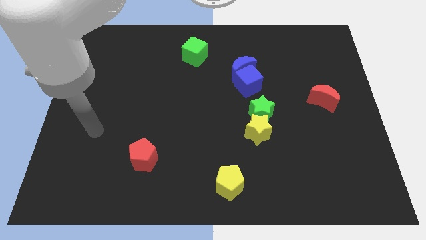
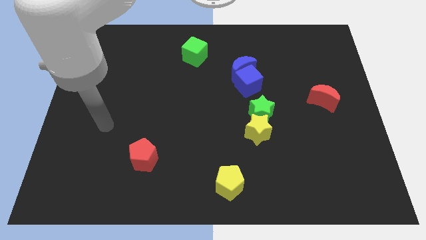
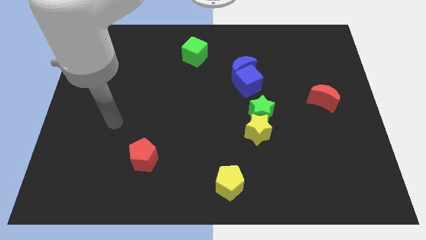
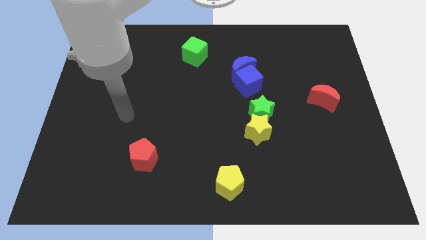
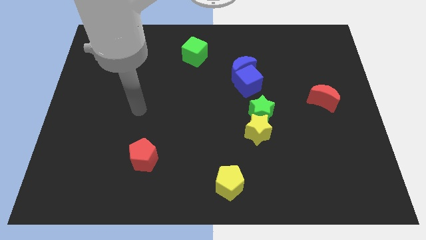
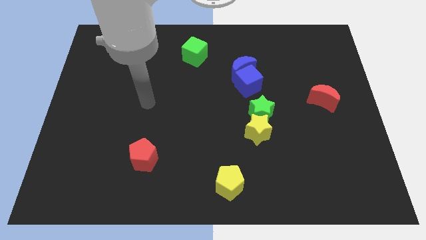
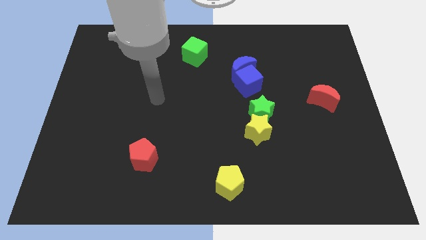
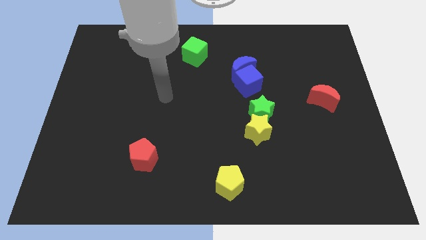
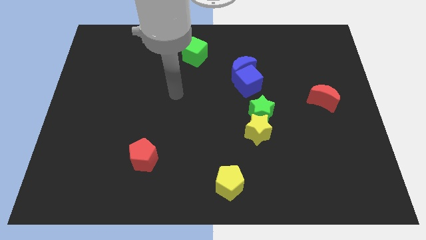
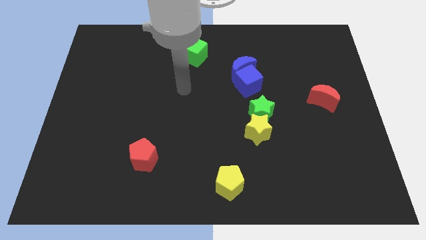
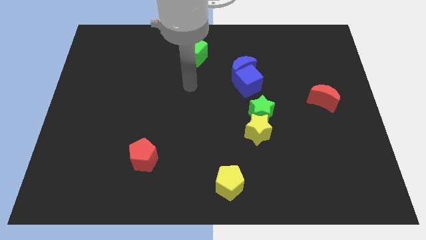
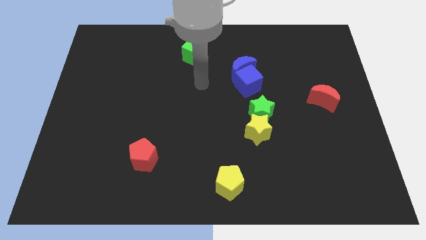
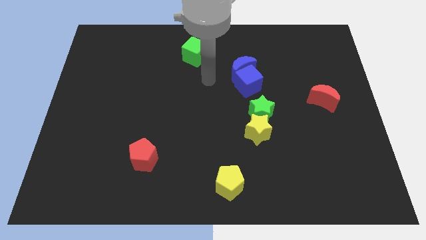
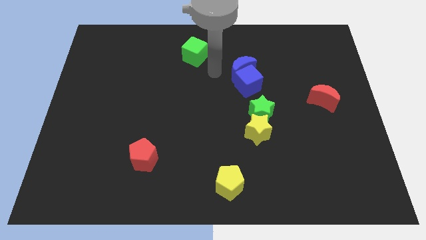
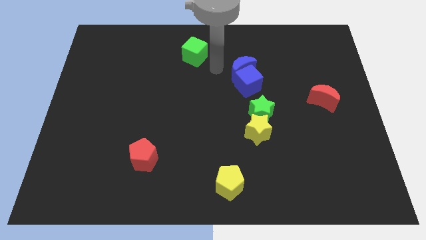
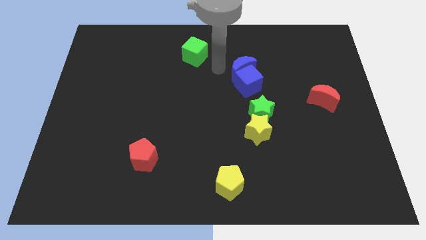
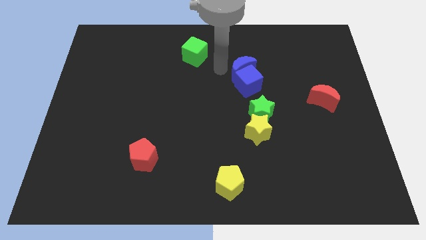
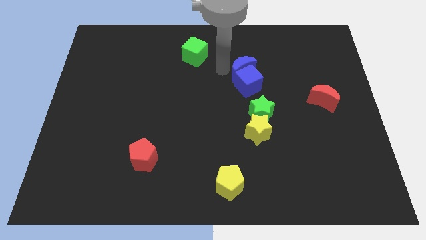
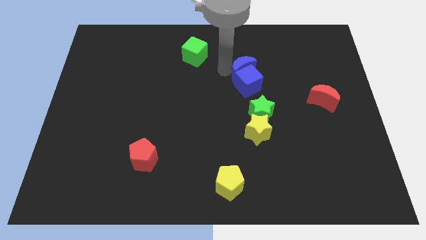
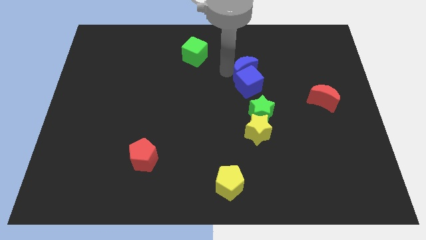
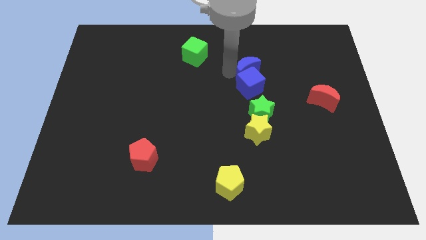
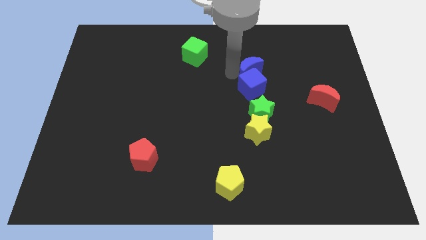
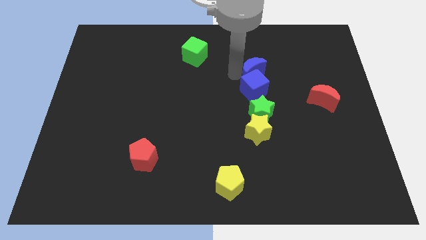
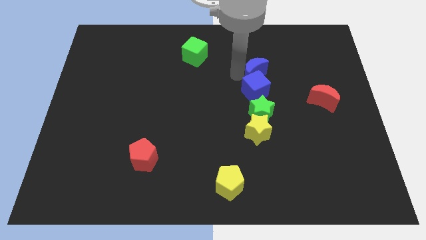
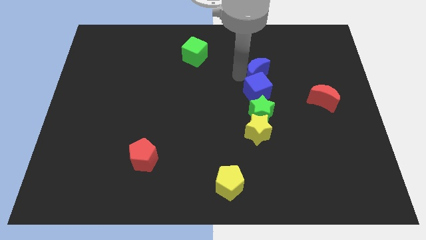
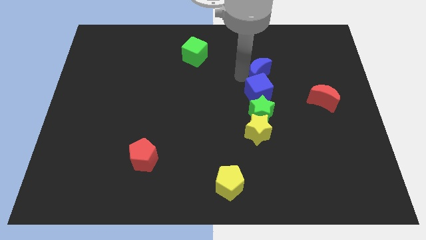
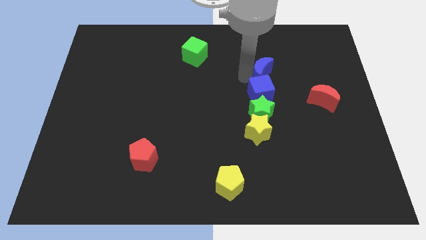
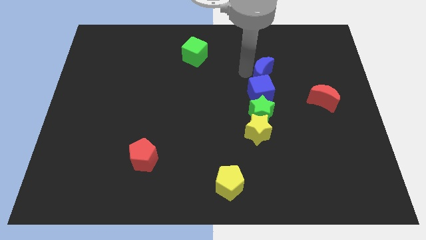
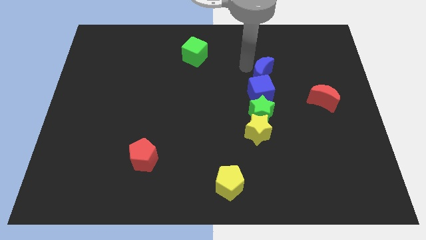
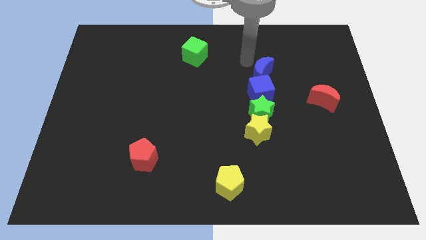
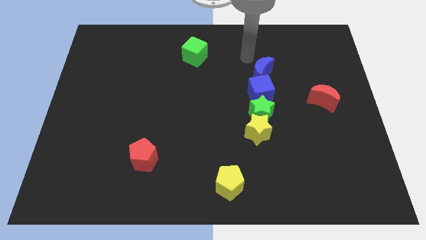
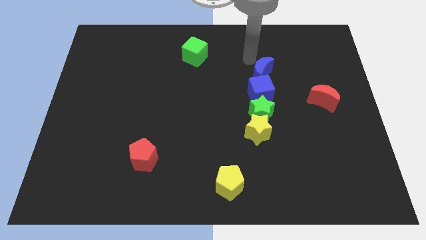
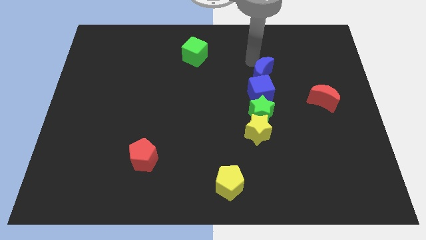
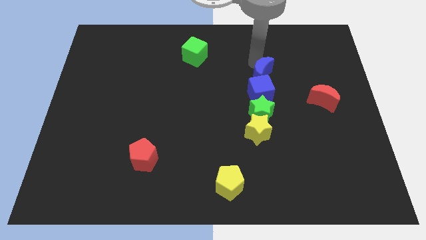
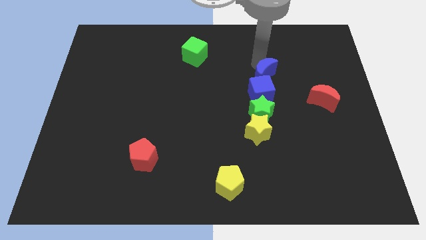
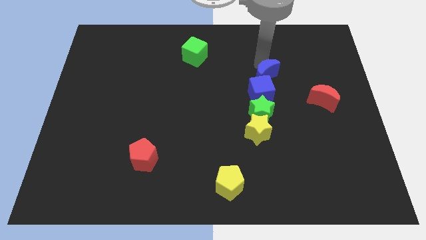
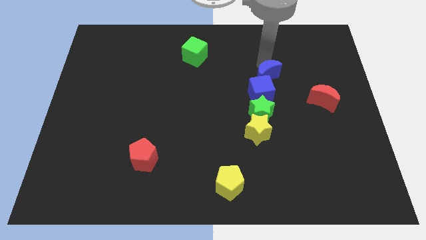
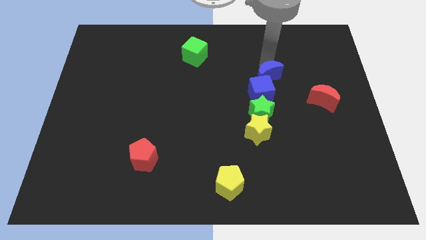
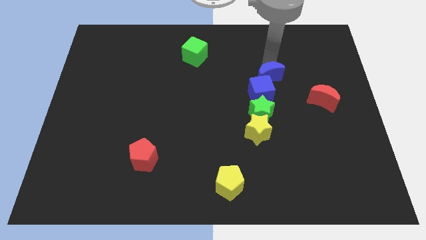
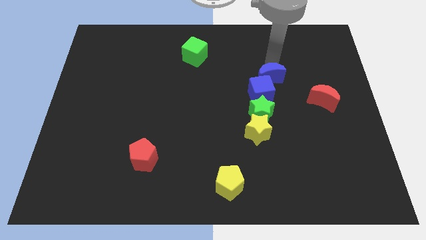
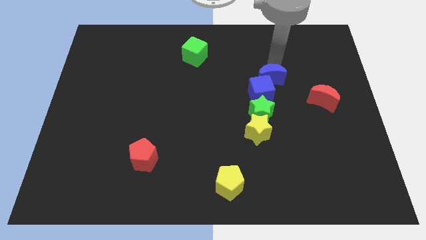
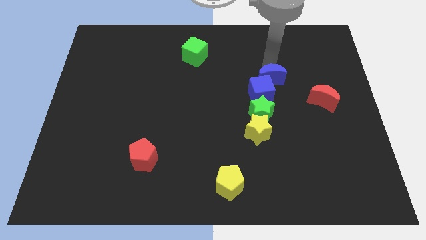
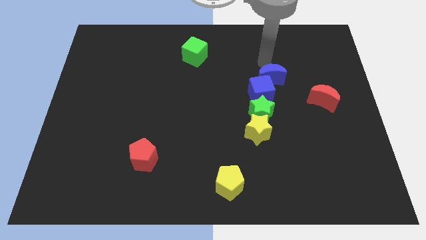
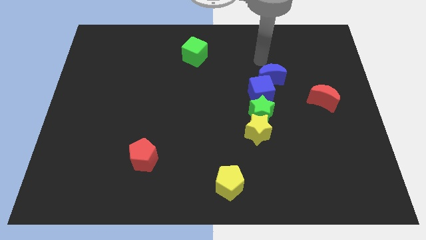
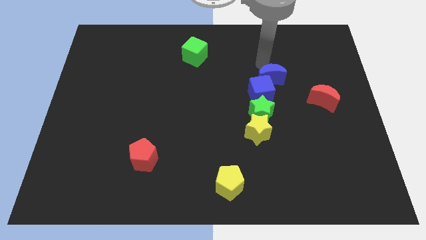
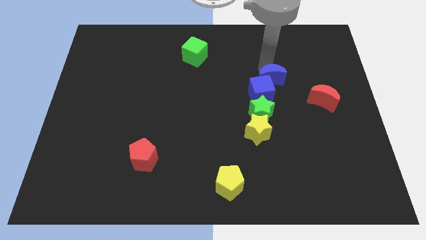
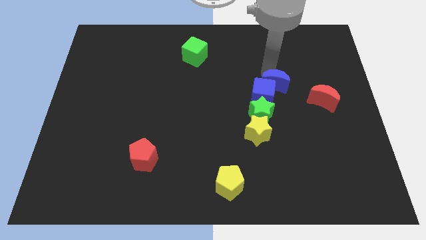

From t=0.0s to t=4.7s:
slide the blue moon diagonally up and to the right of the green star

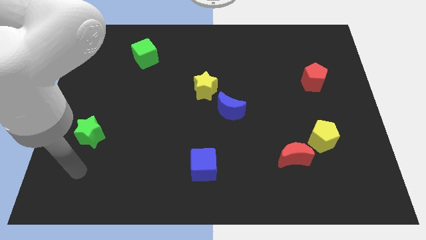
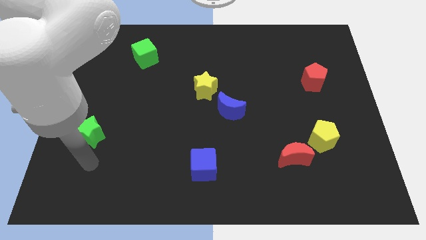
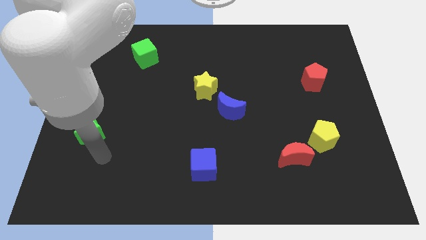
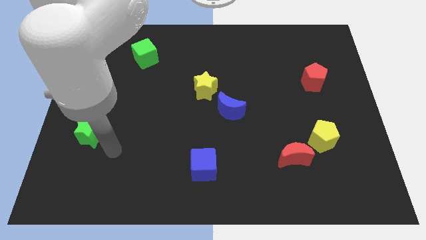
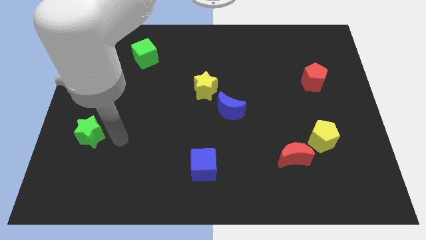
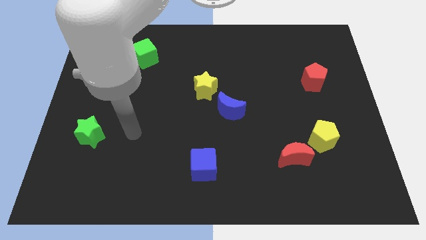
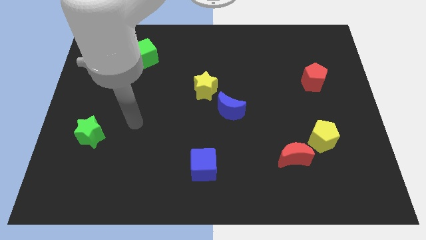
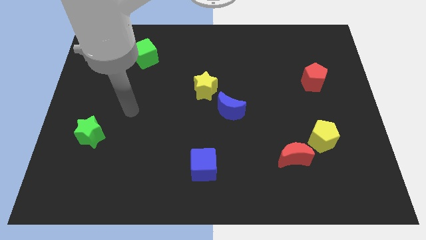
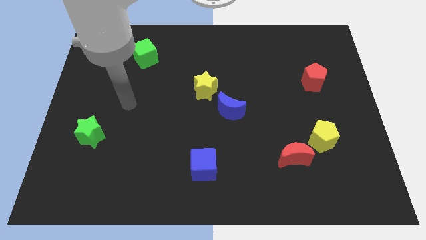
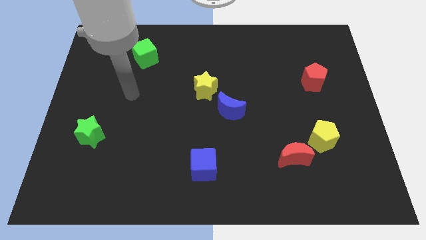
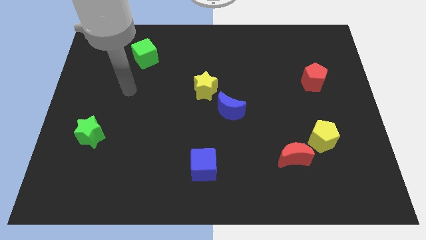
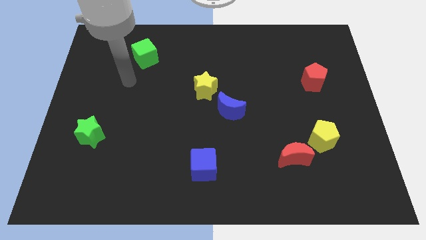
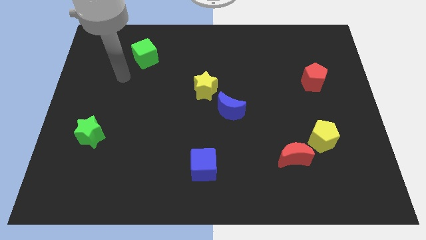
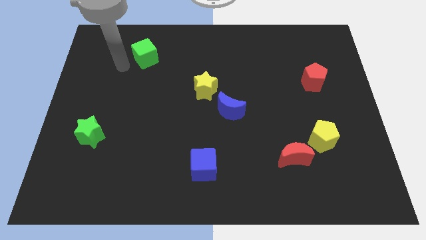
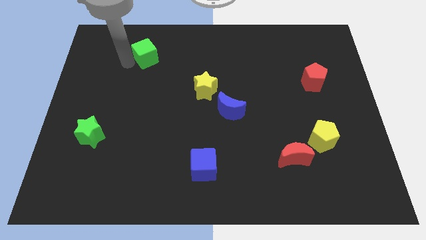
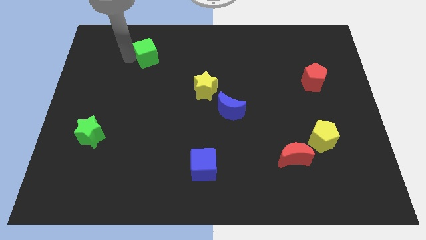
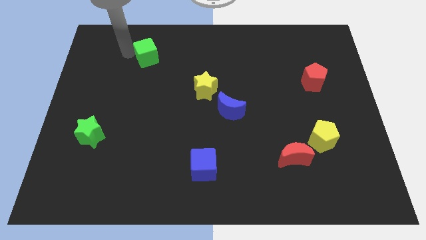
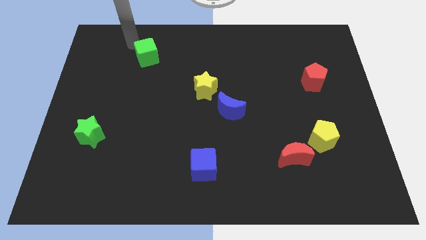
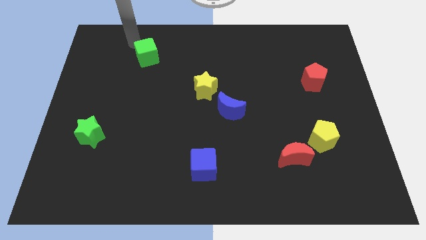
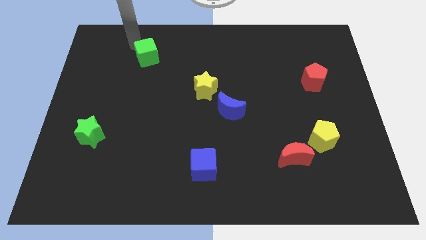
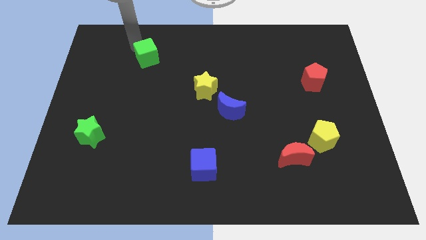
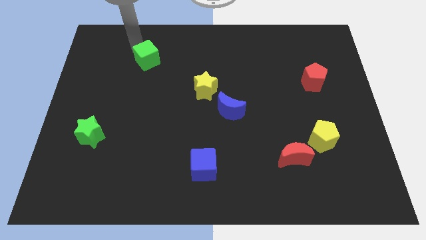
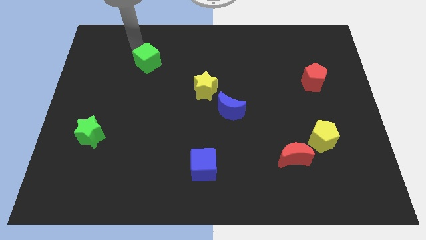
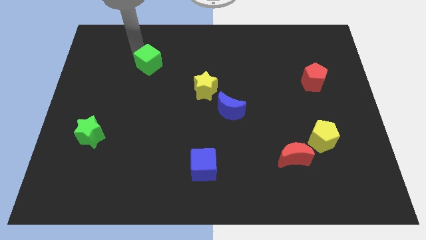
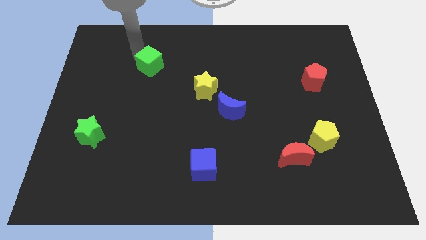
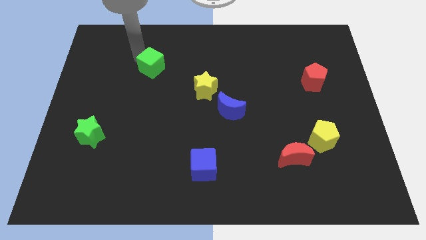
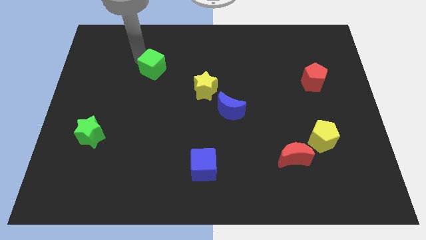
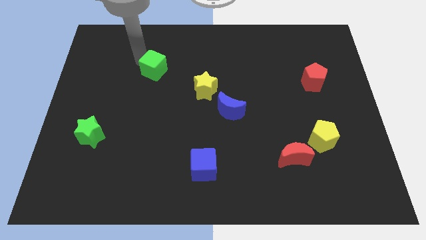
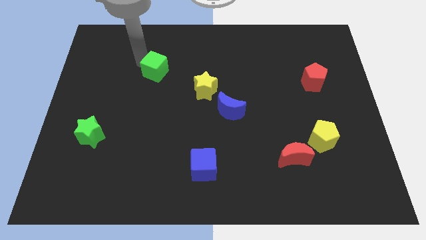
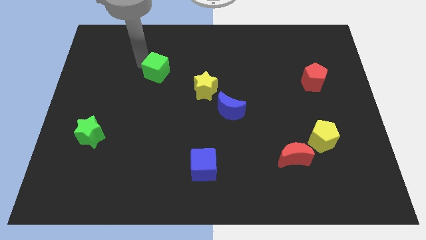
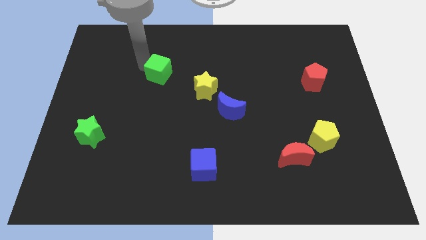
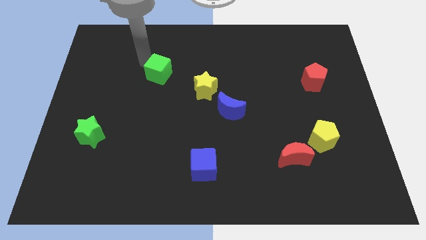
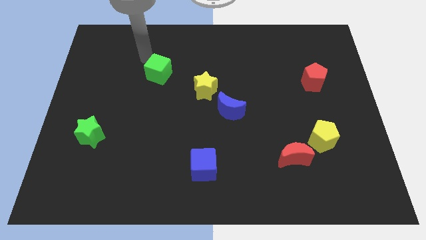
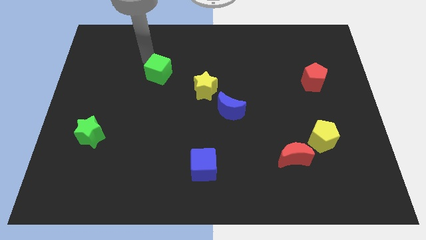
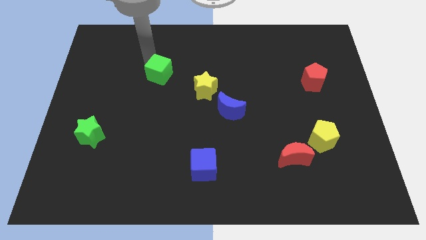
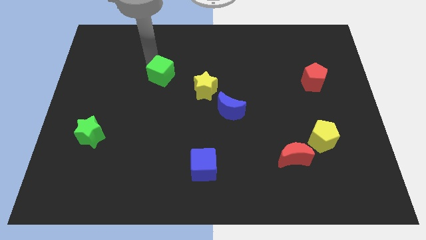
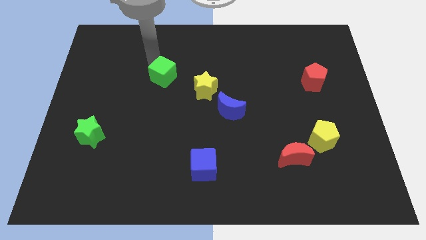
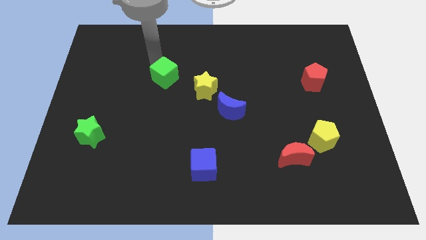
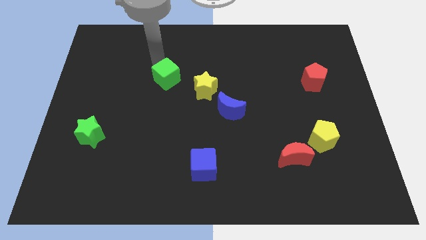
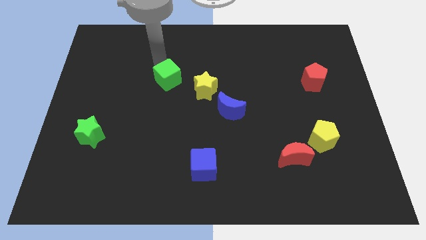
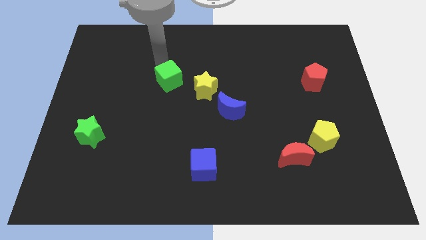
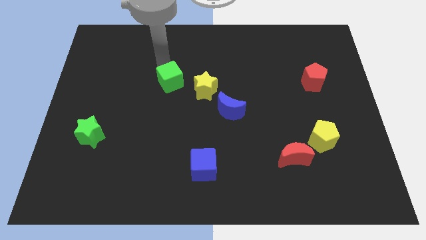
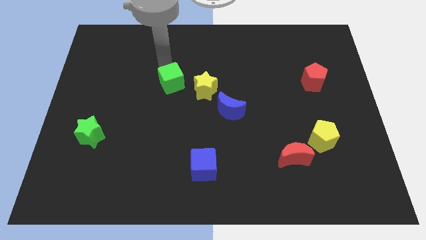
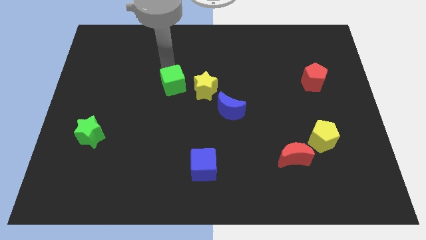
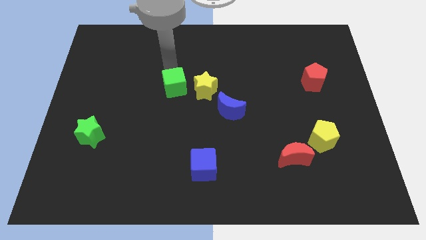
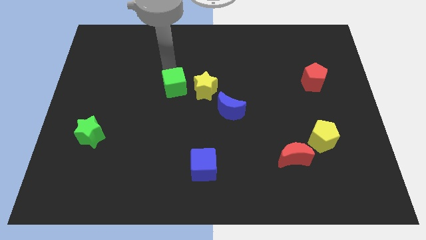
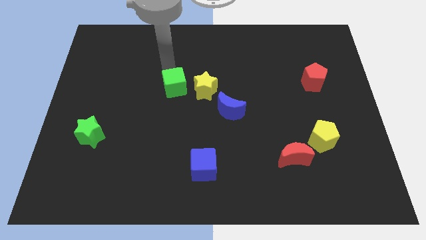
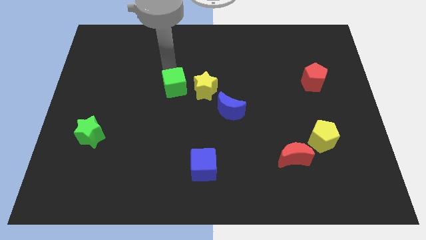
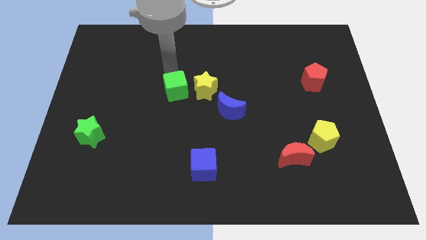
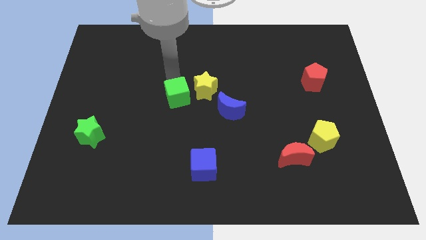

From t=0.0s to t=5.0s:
put the green cube diagonally down and to the left of the yellow star
